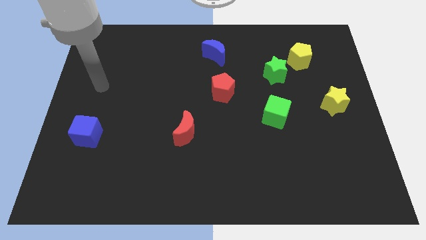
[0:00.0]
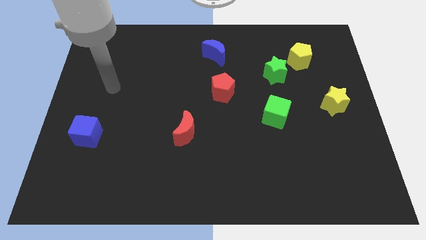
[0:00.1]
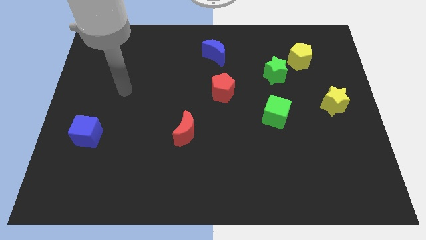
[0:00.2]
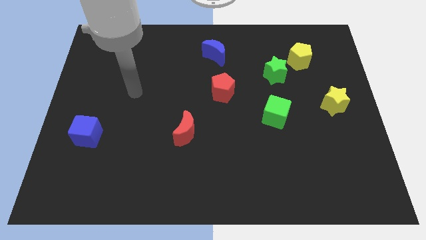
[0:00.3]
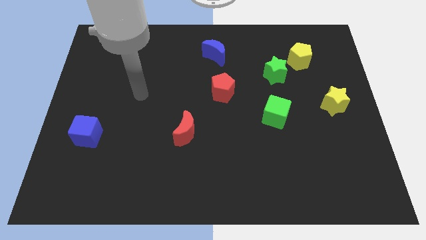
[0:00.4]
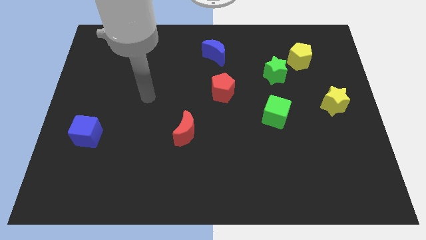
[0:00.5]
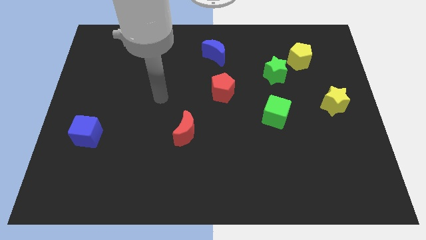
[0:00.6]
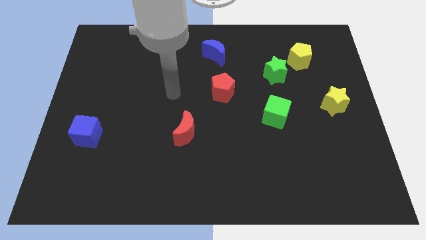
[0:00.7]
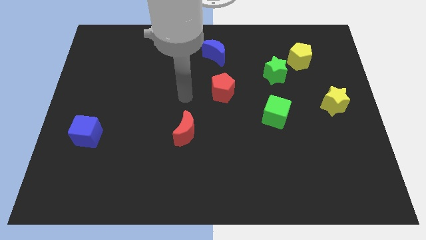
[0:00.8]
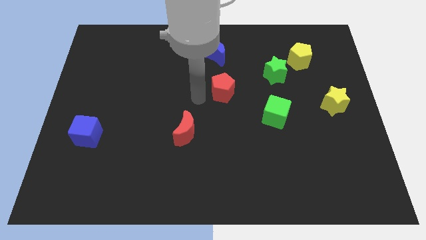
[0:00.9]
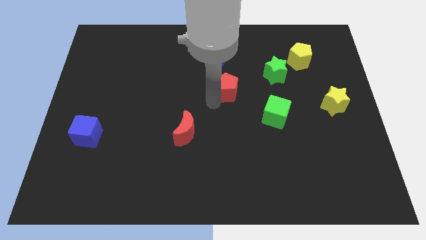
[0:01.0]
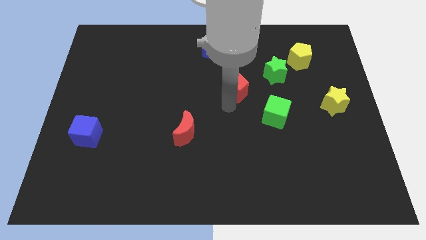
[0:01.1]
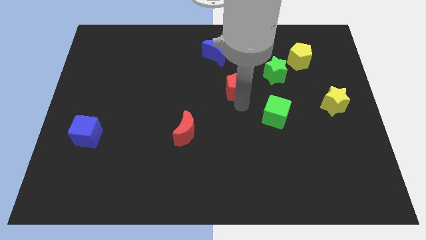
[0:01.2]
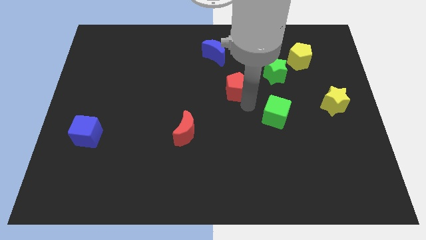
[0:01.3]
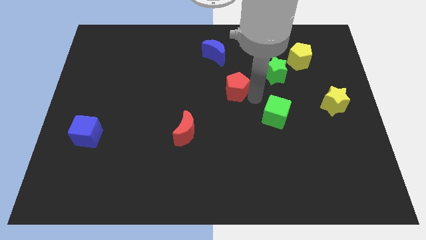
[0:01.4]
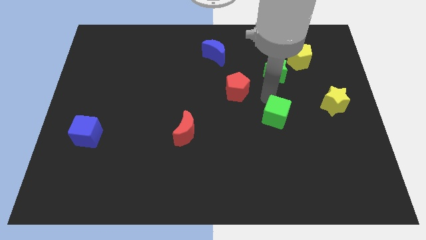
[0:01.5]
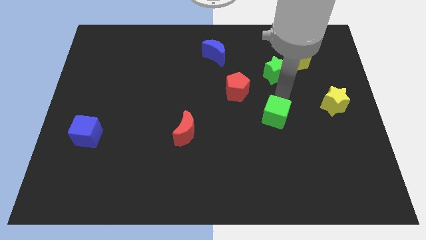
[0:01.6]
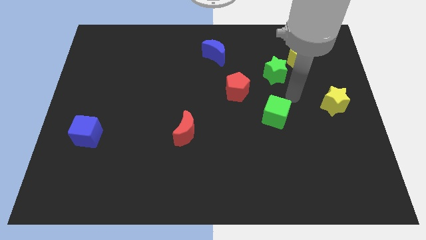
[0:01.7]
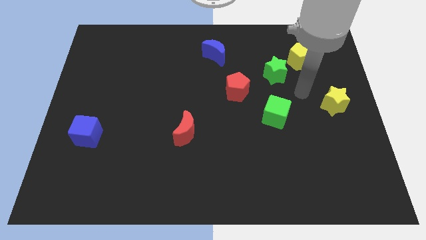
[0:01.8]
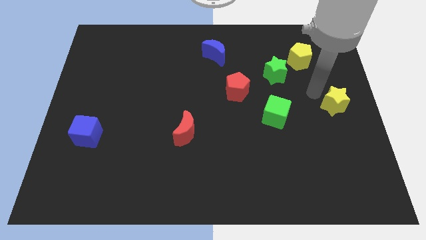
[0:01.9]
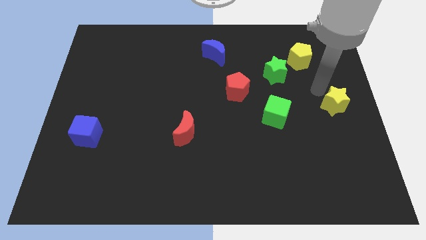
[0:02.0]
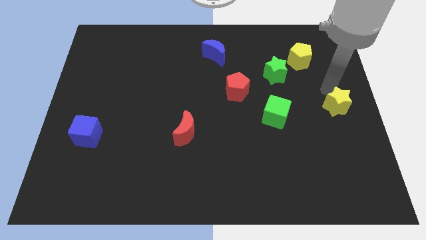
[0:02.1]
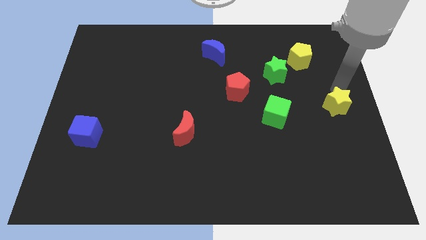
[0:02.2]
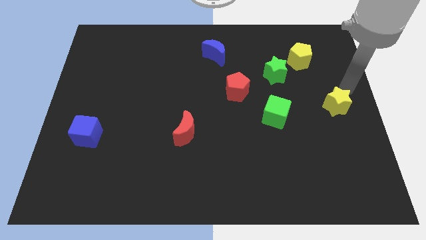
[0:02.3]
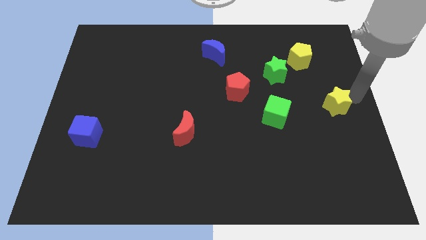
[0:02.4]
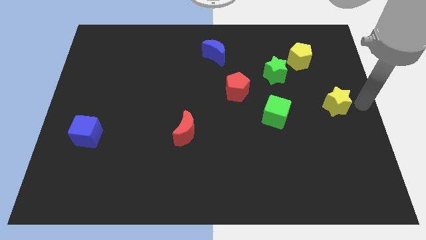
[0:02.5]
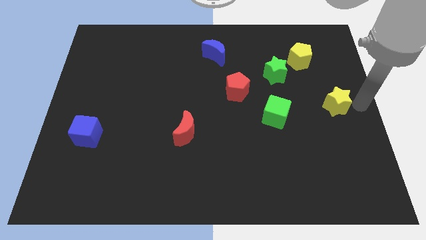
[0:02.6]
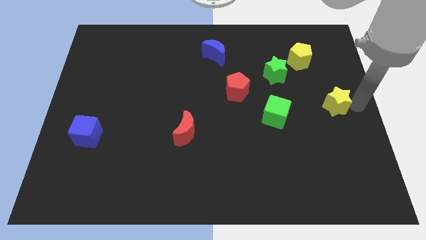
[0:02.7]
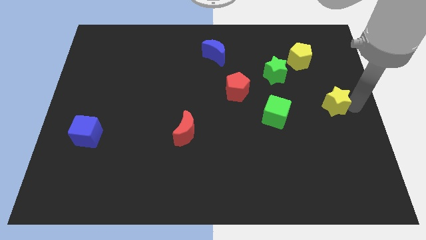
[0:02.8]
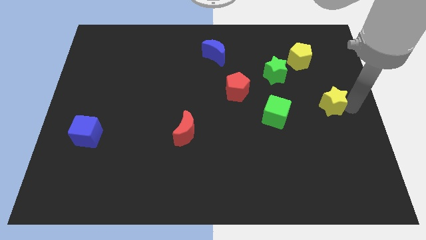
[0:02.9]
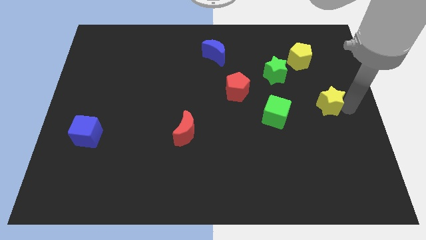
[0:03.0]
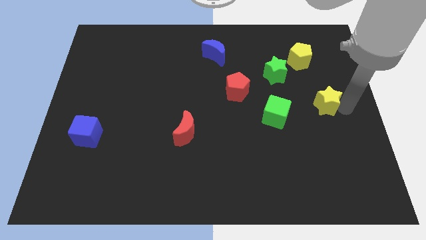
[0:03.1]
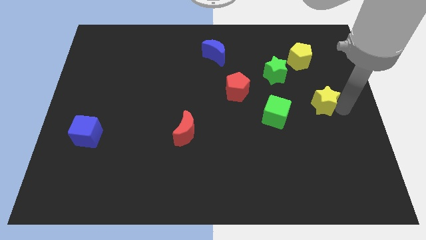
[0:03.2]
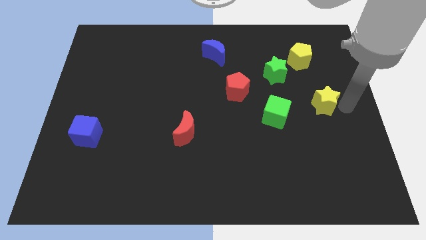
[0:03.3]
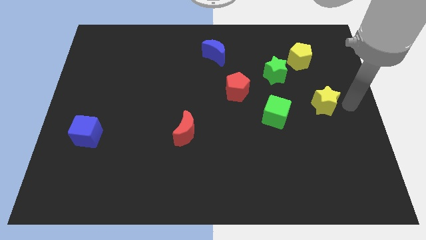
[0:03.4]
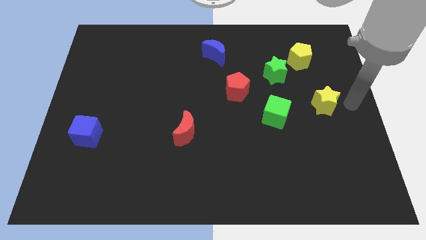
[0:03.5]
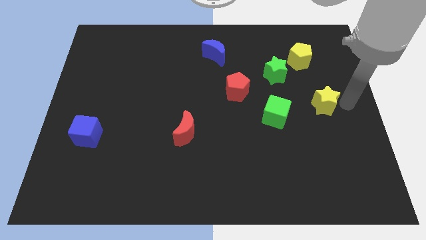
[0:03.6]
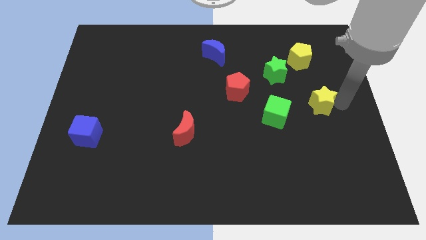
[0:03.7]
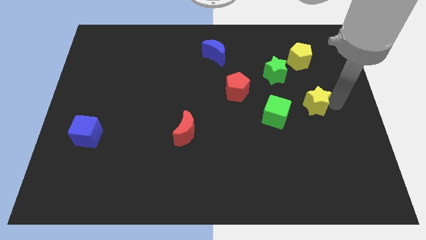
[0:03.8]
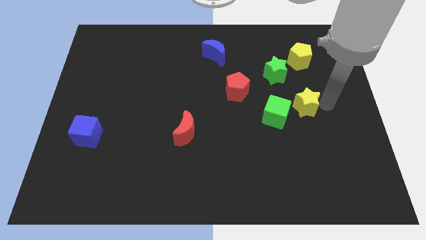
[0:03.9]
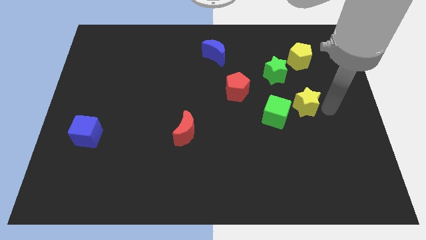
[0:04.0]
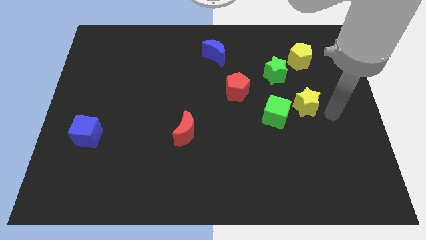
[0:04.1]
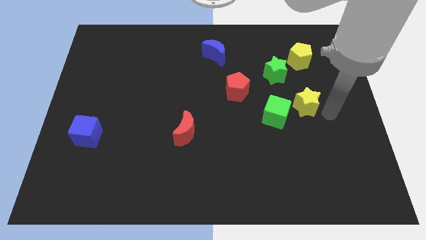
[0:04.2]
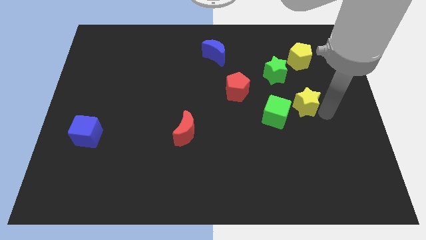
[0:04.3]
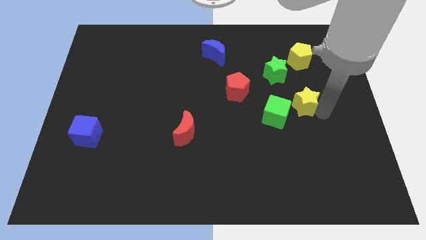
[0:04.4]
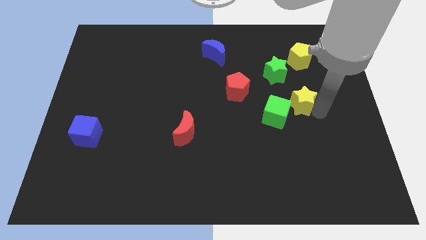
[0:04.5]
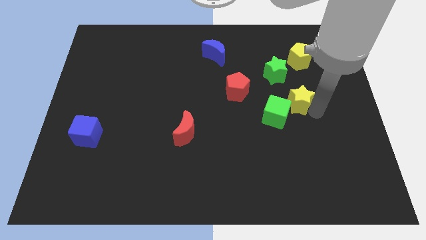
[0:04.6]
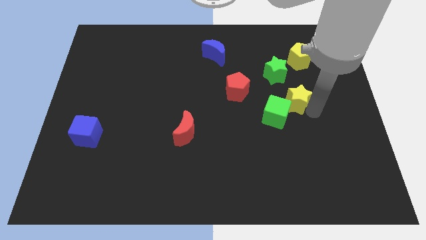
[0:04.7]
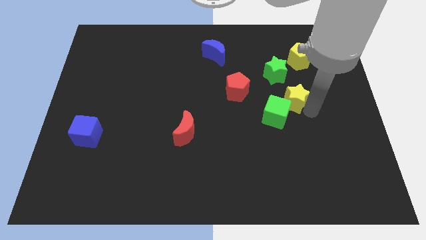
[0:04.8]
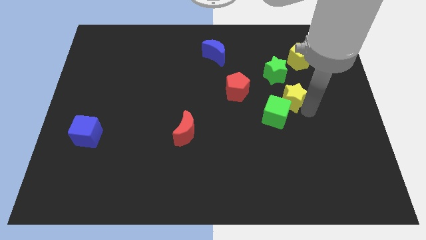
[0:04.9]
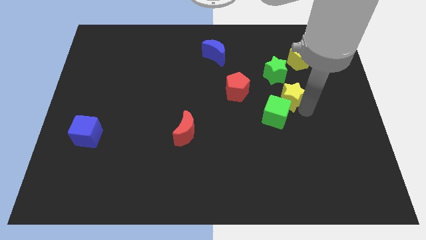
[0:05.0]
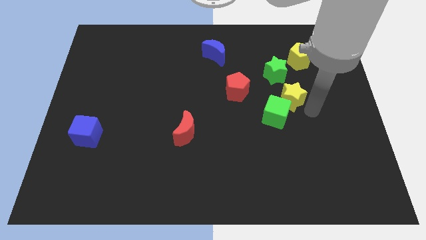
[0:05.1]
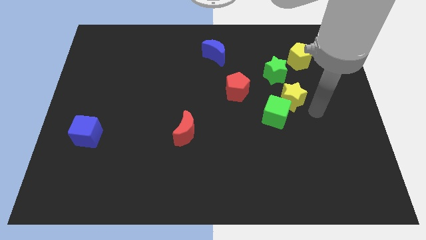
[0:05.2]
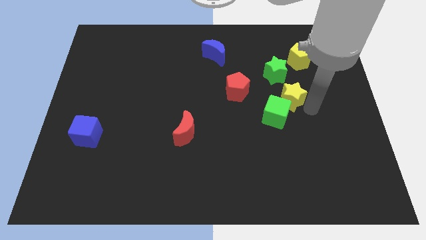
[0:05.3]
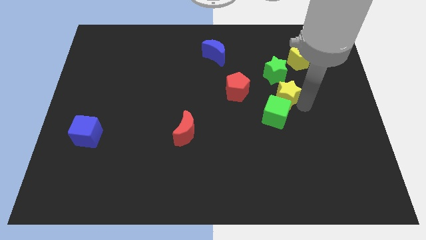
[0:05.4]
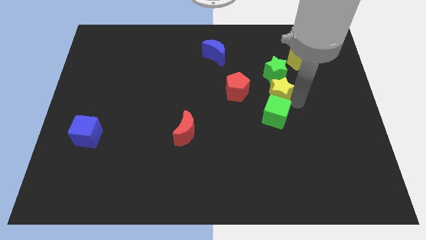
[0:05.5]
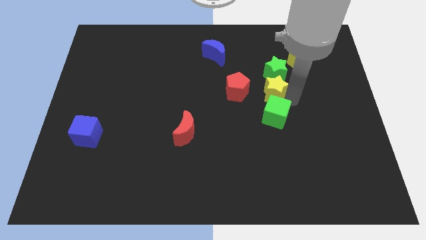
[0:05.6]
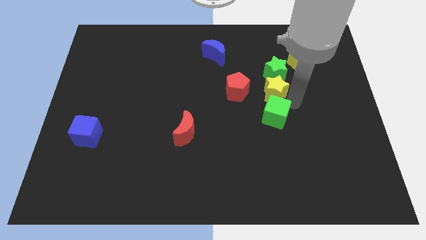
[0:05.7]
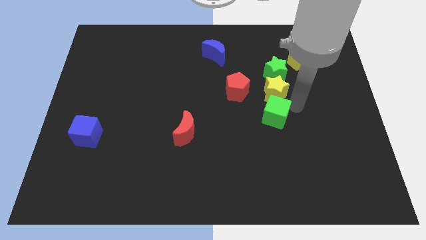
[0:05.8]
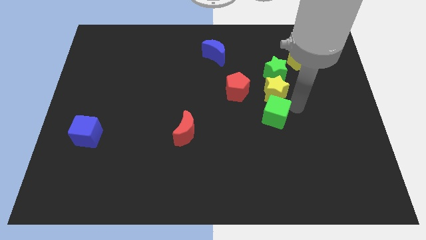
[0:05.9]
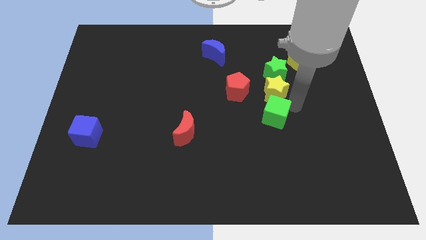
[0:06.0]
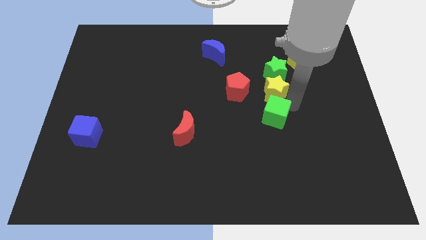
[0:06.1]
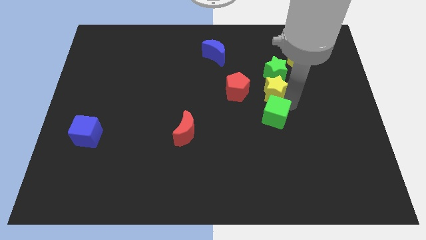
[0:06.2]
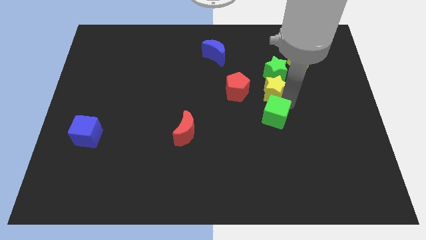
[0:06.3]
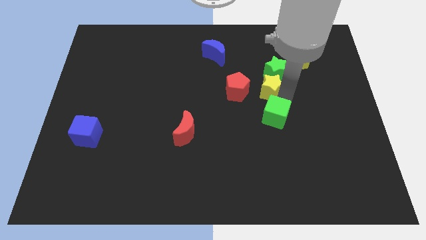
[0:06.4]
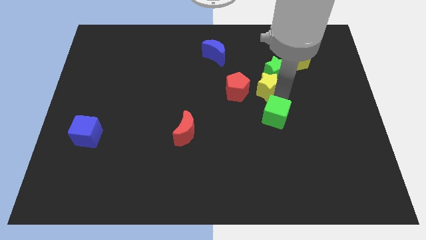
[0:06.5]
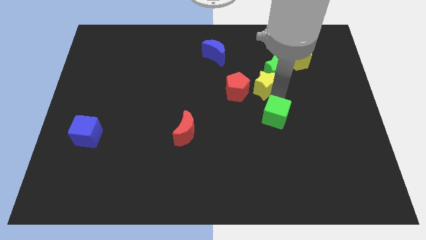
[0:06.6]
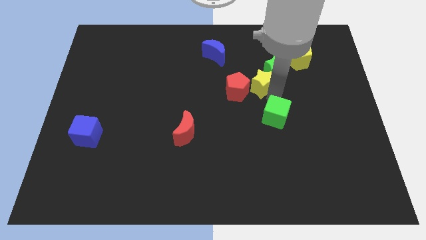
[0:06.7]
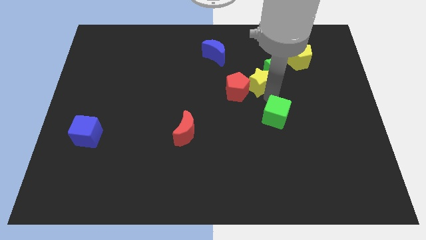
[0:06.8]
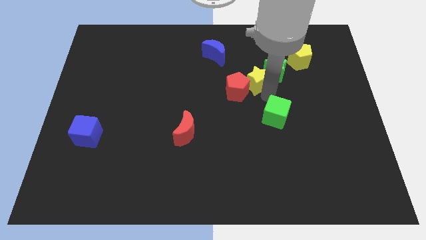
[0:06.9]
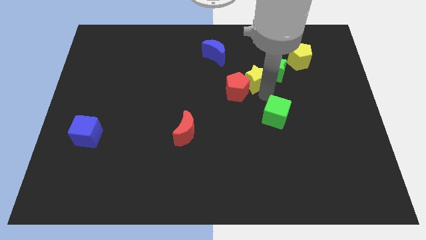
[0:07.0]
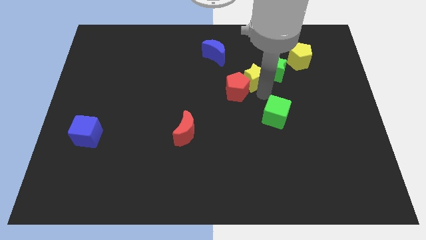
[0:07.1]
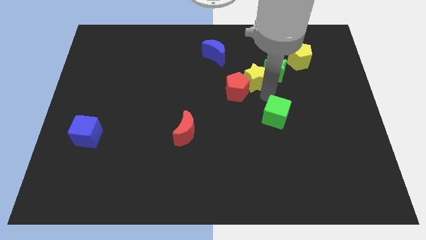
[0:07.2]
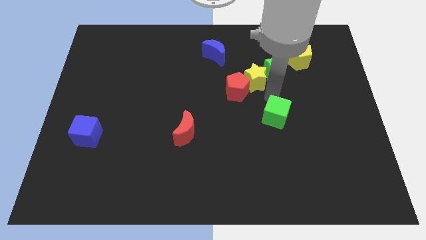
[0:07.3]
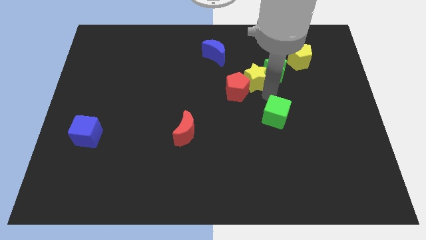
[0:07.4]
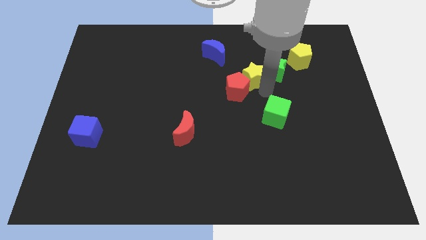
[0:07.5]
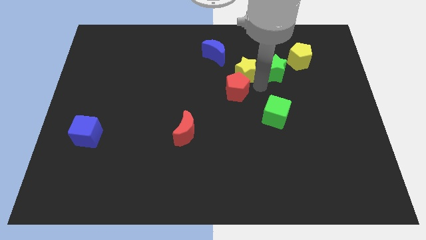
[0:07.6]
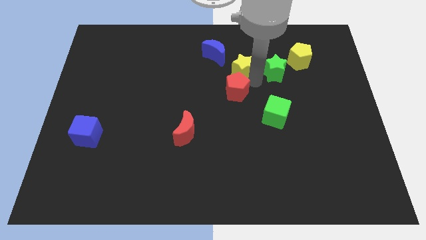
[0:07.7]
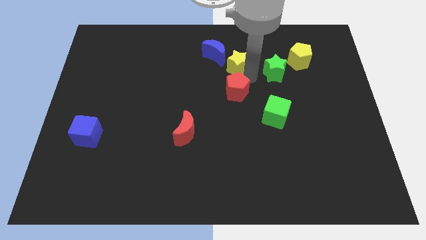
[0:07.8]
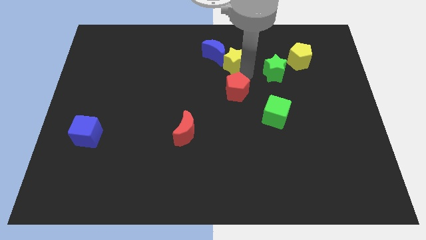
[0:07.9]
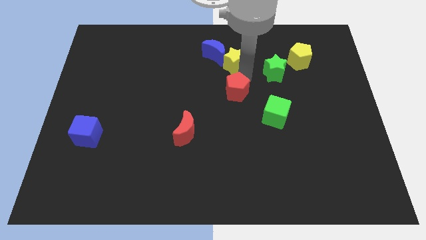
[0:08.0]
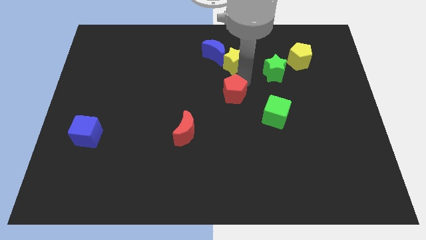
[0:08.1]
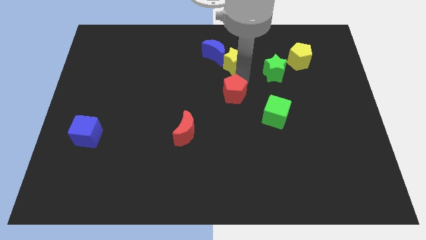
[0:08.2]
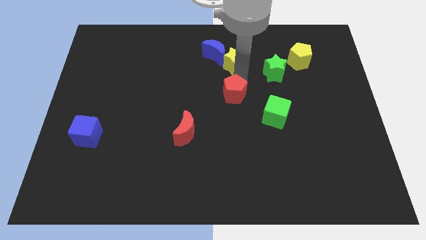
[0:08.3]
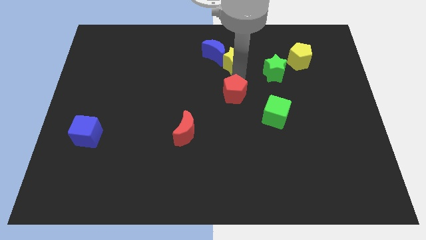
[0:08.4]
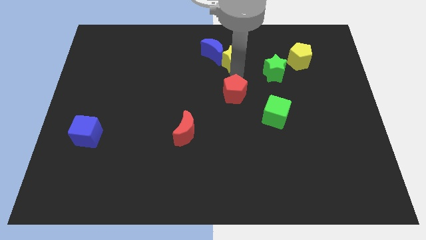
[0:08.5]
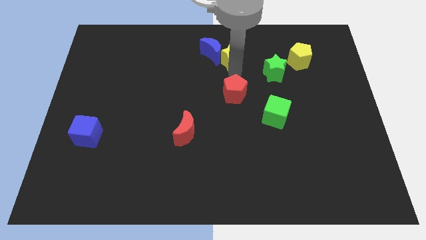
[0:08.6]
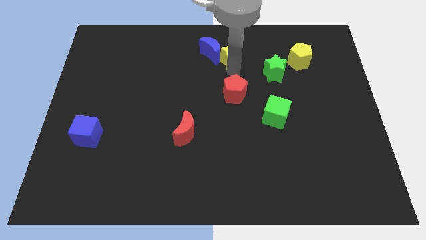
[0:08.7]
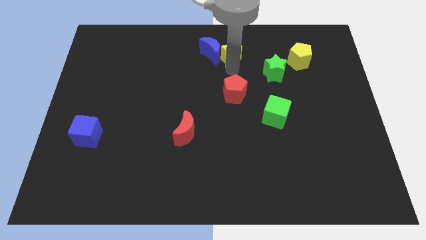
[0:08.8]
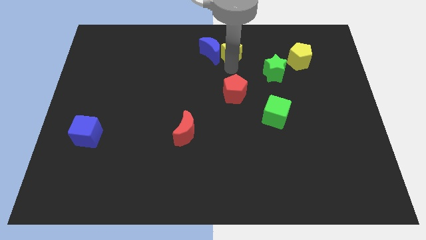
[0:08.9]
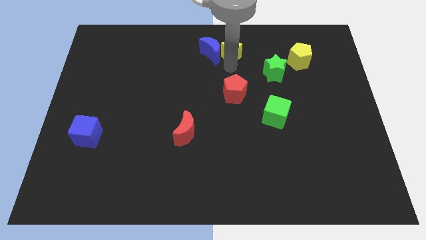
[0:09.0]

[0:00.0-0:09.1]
slide the yellow star to the towards your base
